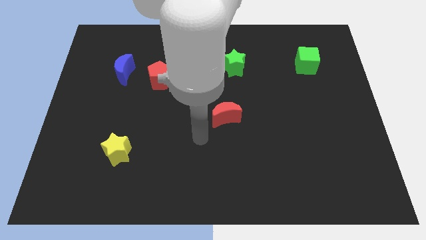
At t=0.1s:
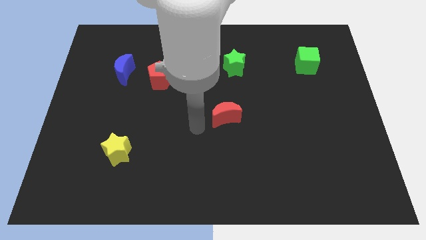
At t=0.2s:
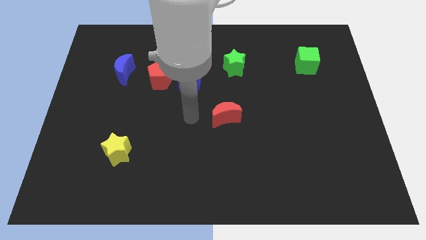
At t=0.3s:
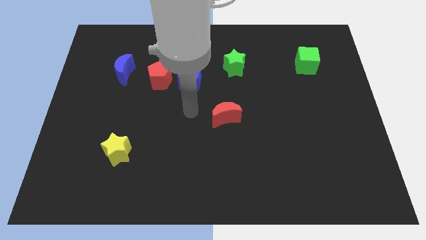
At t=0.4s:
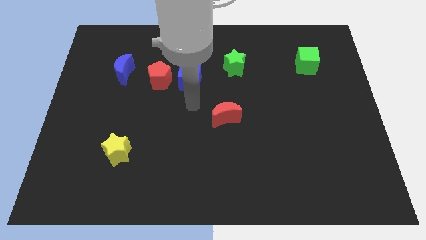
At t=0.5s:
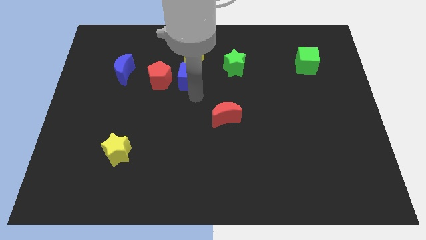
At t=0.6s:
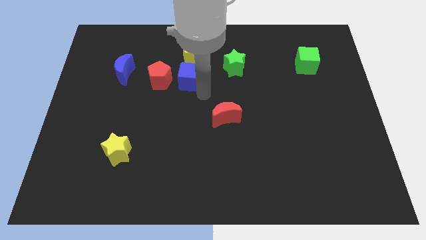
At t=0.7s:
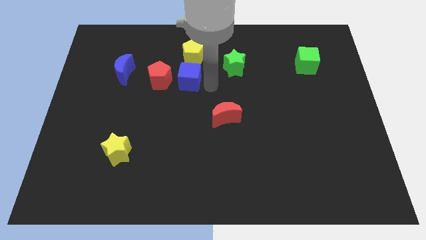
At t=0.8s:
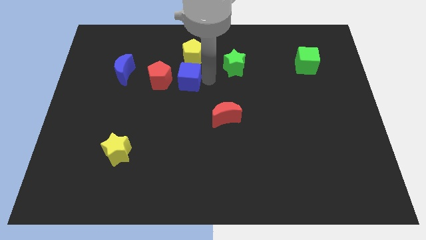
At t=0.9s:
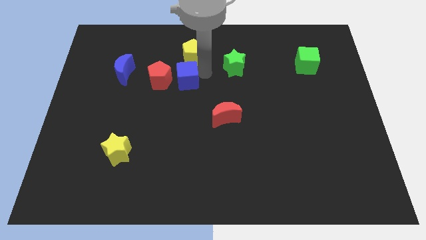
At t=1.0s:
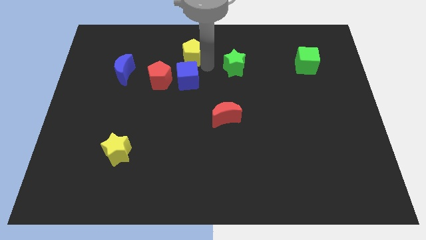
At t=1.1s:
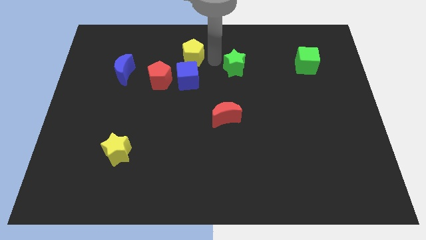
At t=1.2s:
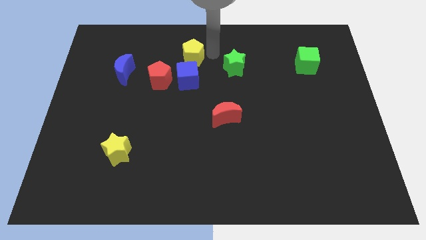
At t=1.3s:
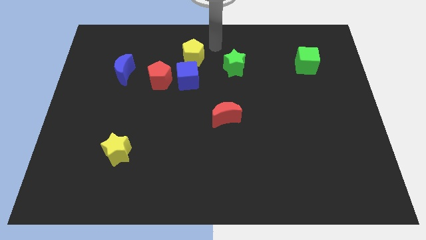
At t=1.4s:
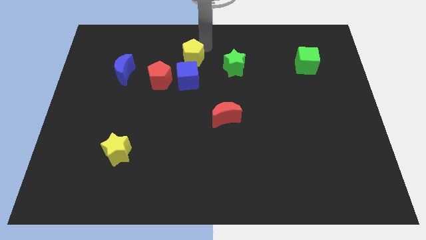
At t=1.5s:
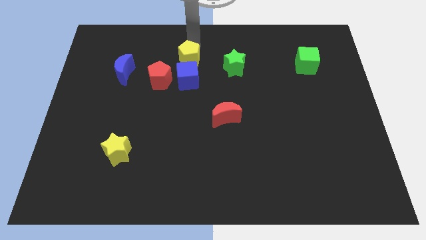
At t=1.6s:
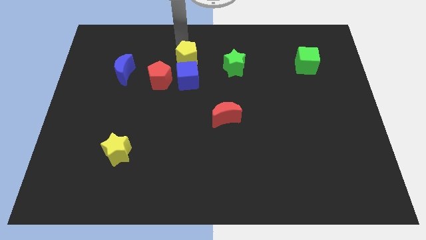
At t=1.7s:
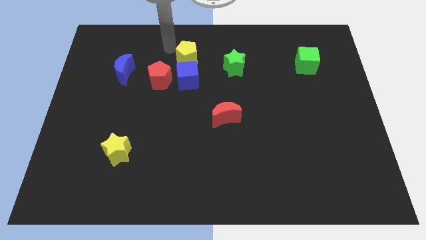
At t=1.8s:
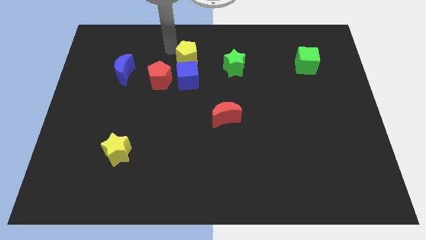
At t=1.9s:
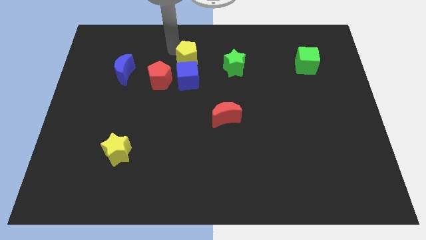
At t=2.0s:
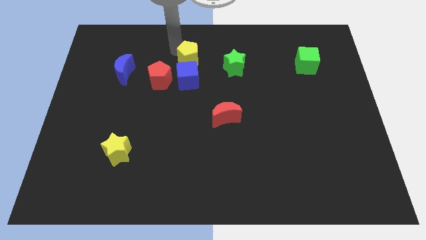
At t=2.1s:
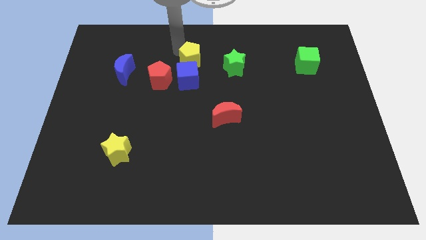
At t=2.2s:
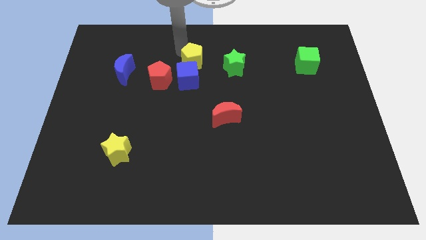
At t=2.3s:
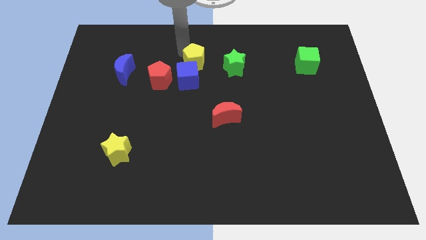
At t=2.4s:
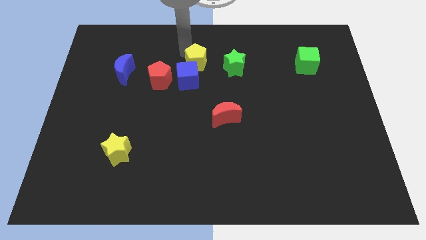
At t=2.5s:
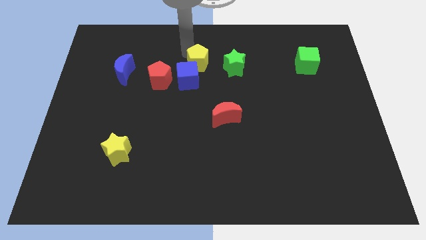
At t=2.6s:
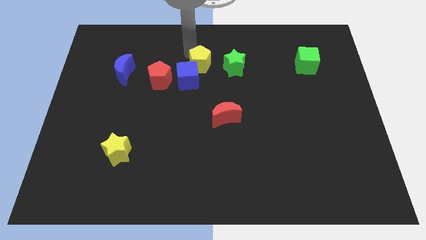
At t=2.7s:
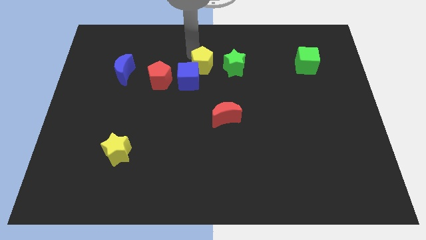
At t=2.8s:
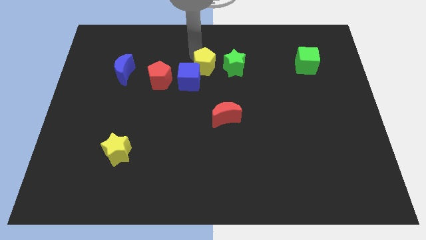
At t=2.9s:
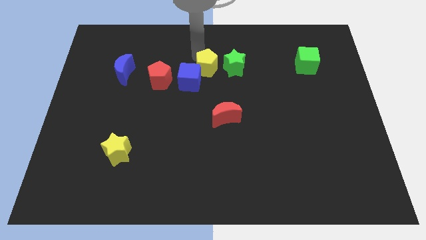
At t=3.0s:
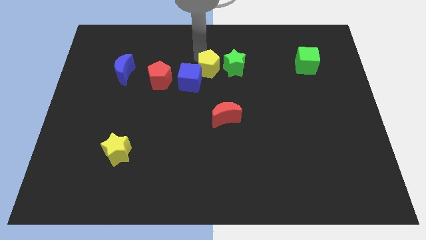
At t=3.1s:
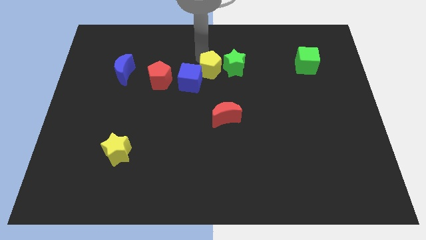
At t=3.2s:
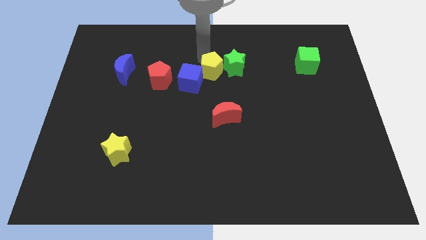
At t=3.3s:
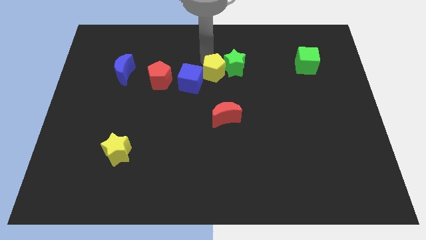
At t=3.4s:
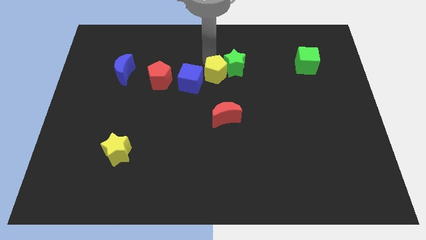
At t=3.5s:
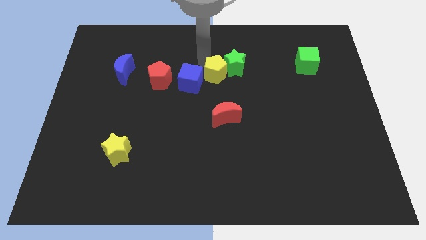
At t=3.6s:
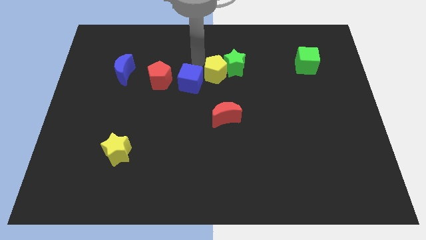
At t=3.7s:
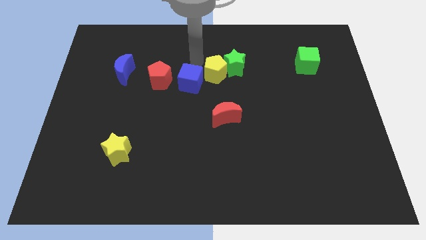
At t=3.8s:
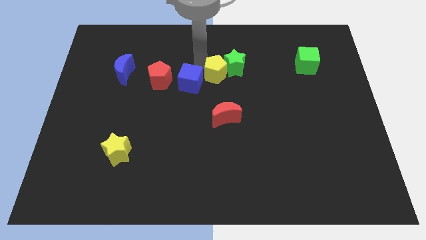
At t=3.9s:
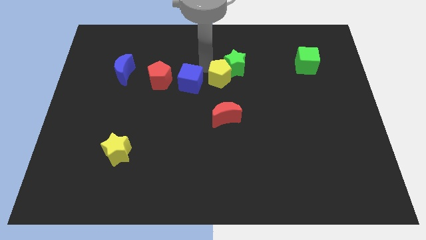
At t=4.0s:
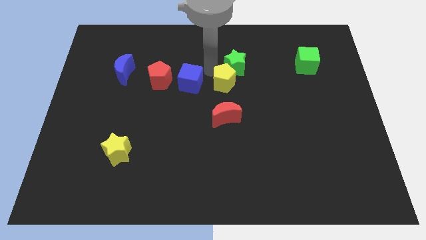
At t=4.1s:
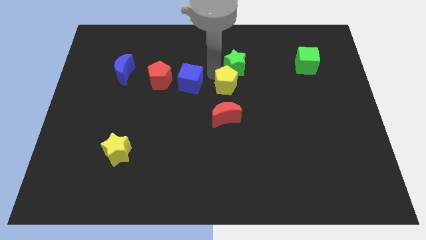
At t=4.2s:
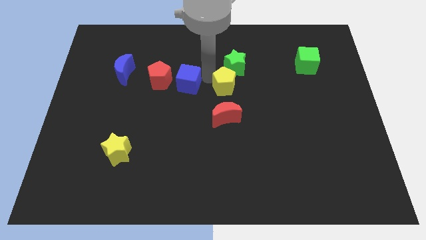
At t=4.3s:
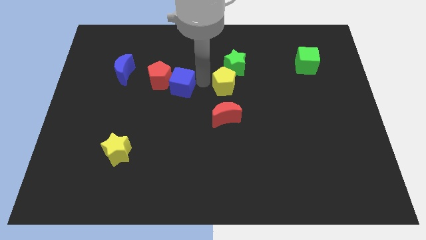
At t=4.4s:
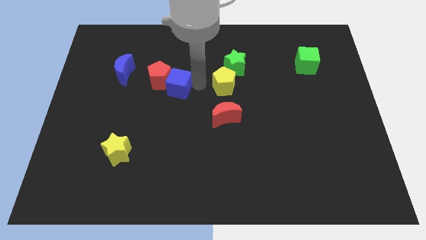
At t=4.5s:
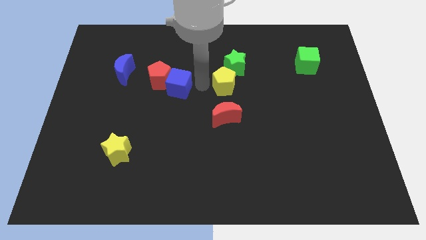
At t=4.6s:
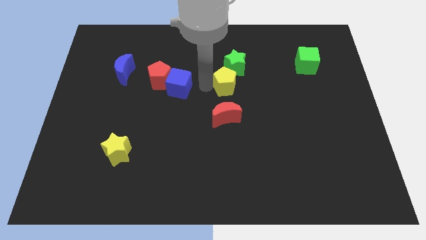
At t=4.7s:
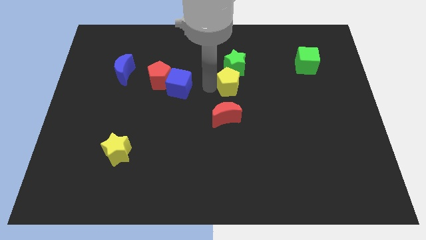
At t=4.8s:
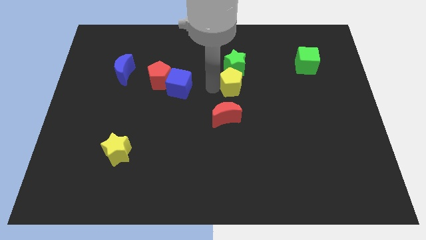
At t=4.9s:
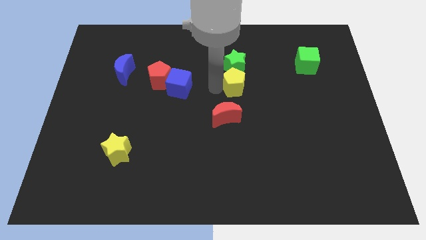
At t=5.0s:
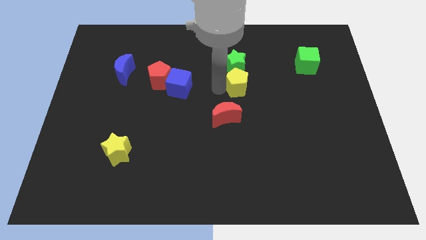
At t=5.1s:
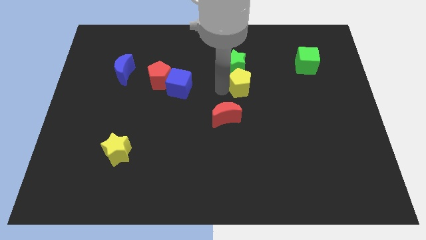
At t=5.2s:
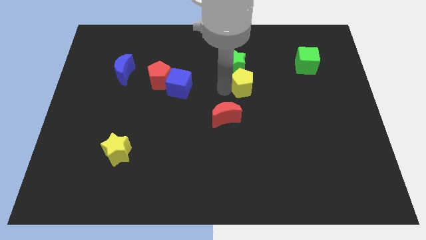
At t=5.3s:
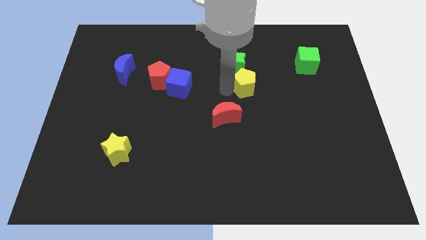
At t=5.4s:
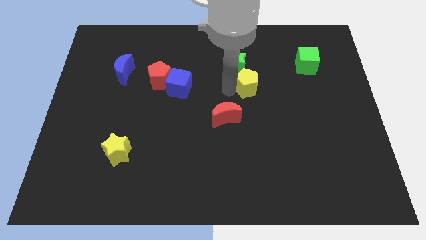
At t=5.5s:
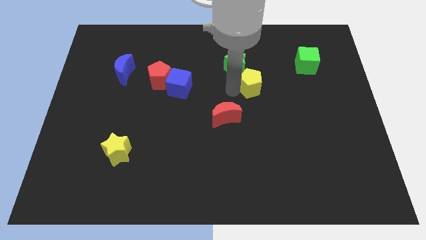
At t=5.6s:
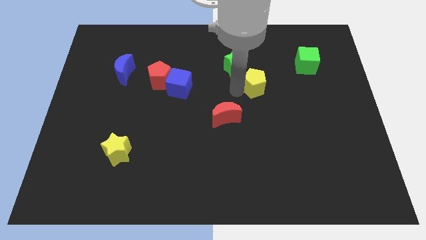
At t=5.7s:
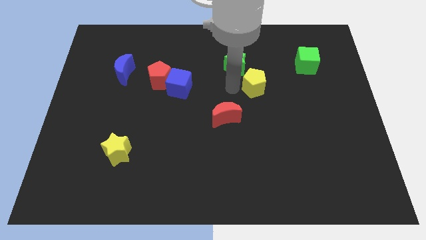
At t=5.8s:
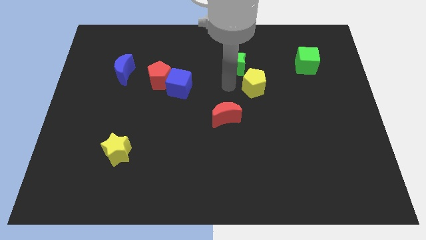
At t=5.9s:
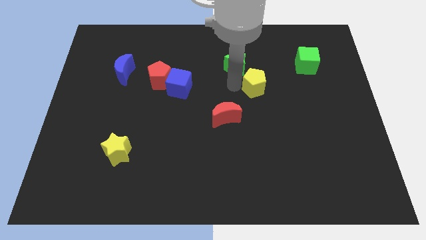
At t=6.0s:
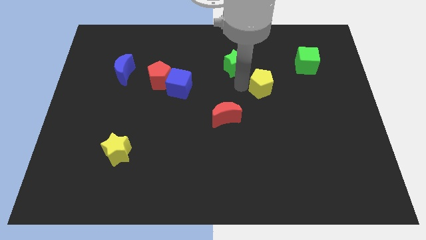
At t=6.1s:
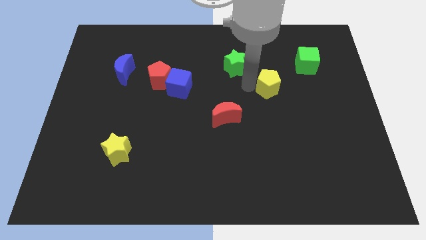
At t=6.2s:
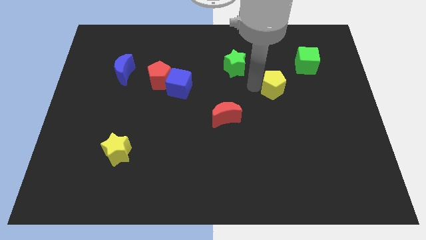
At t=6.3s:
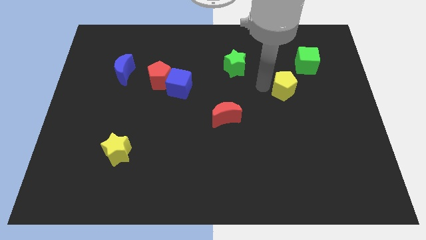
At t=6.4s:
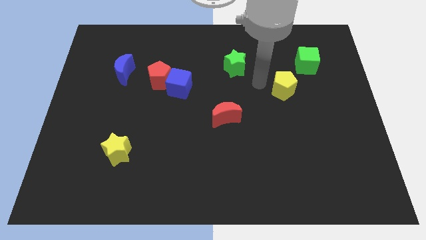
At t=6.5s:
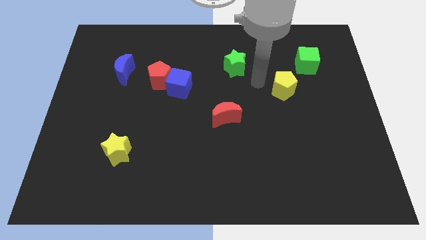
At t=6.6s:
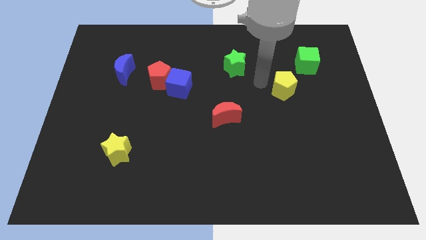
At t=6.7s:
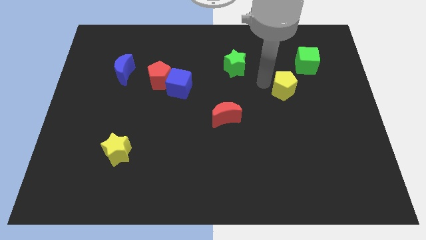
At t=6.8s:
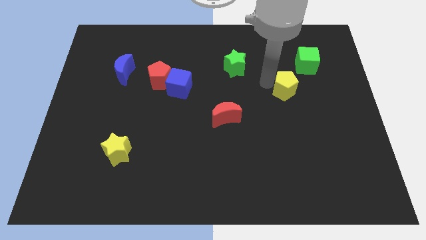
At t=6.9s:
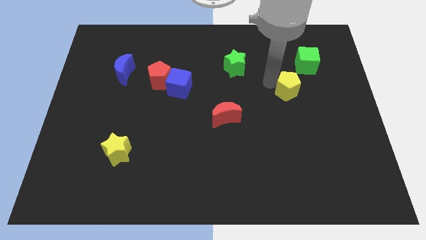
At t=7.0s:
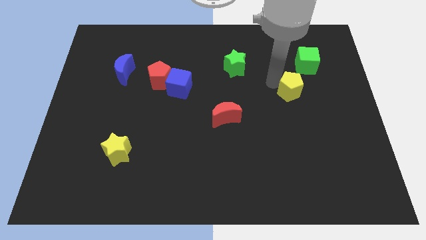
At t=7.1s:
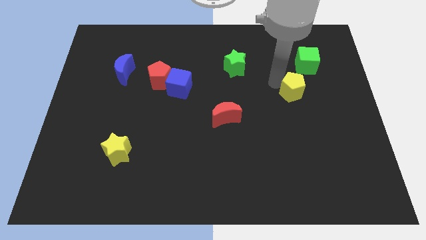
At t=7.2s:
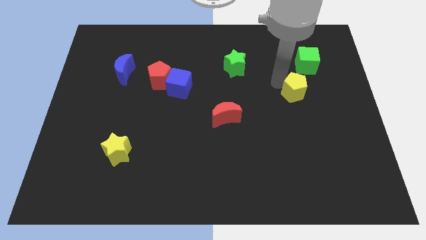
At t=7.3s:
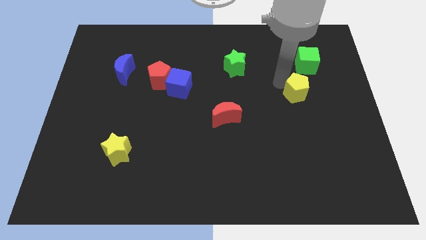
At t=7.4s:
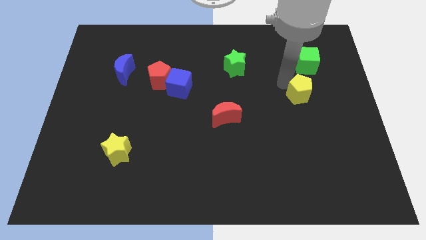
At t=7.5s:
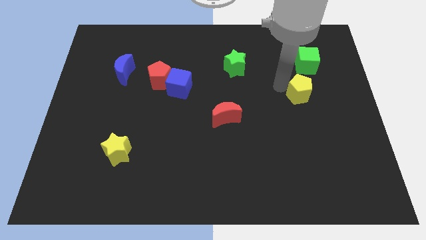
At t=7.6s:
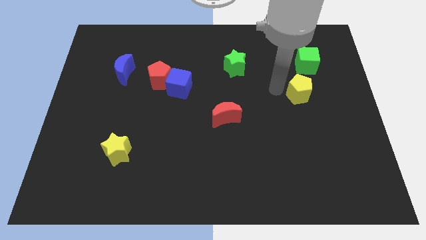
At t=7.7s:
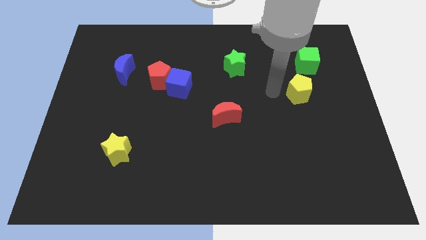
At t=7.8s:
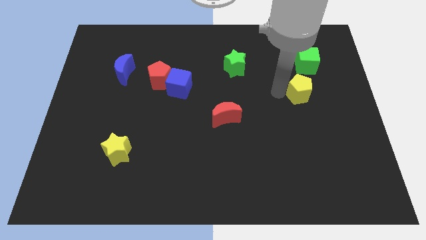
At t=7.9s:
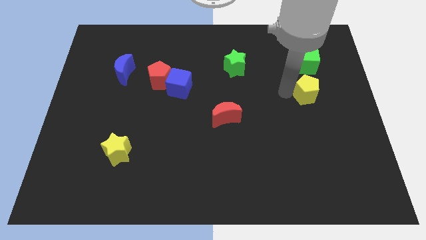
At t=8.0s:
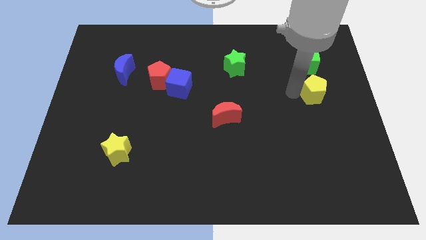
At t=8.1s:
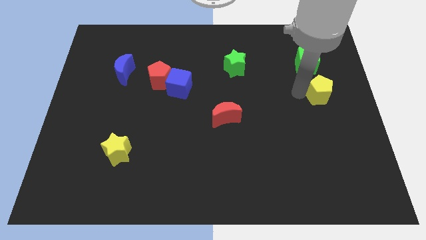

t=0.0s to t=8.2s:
push the yellow pentagon to the right side of the board
